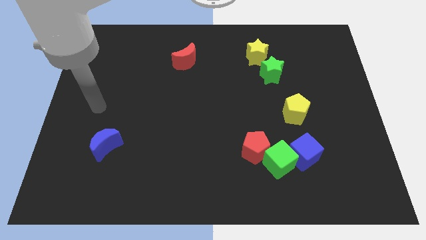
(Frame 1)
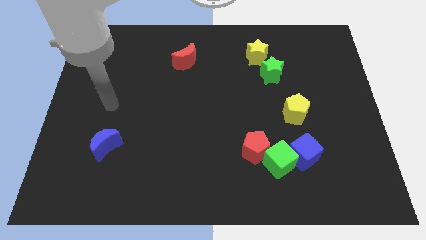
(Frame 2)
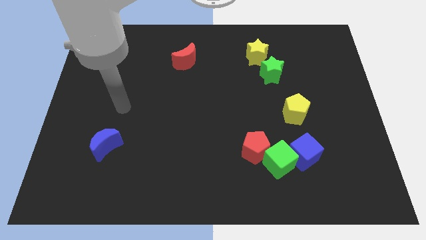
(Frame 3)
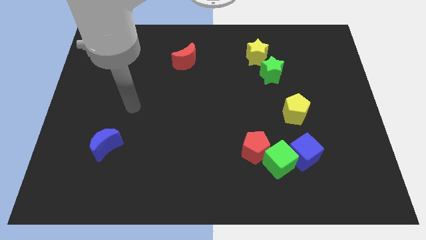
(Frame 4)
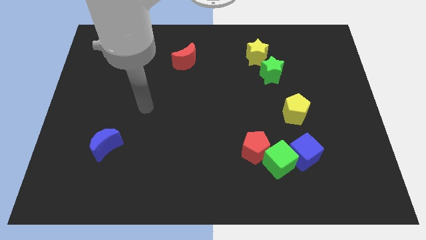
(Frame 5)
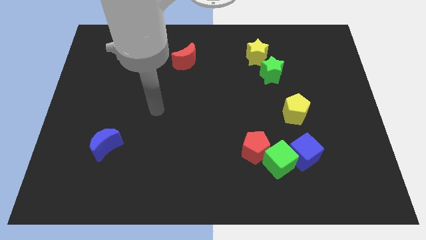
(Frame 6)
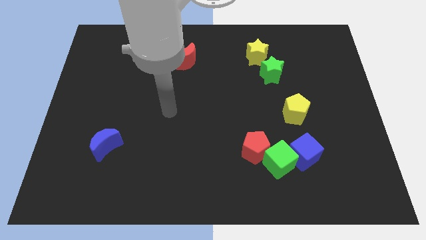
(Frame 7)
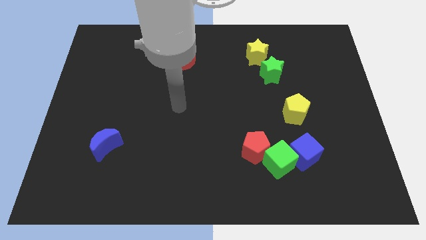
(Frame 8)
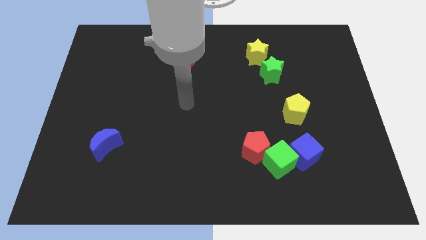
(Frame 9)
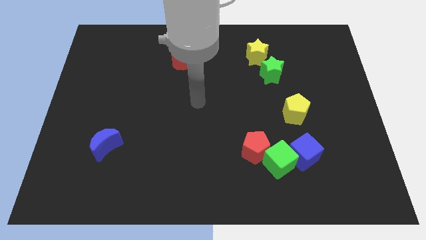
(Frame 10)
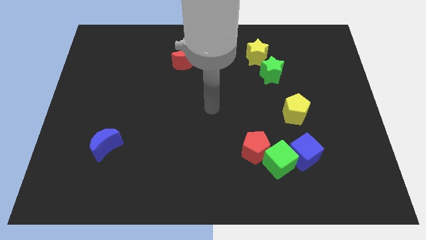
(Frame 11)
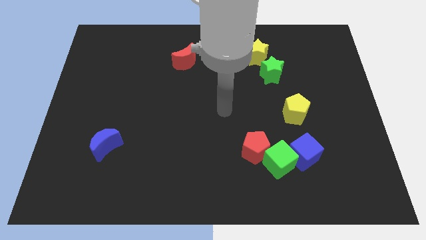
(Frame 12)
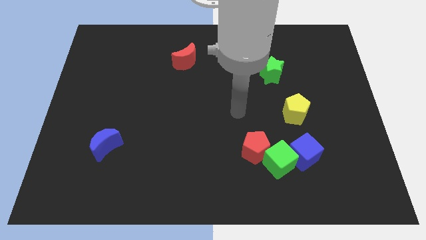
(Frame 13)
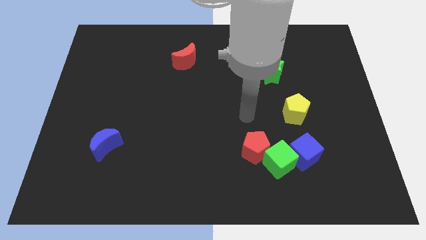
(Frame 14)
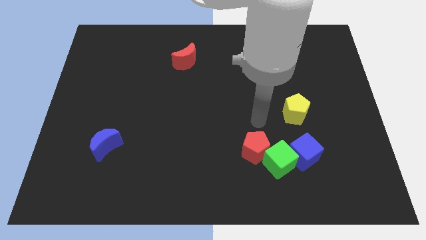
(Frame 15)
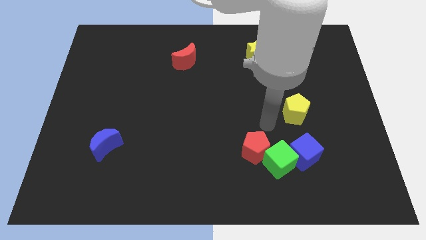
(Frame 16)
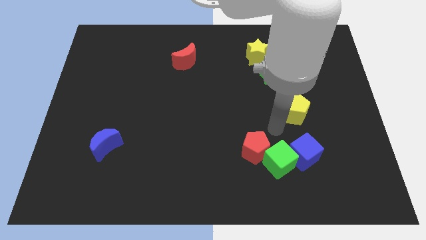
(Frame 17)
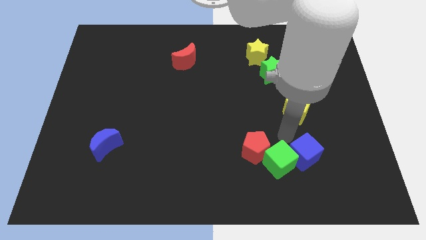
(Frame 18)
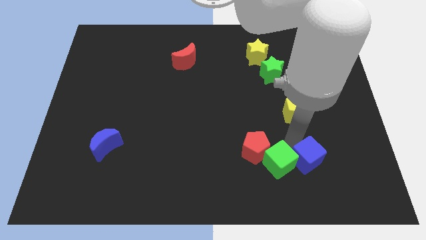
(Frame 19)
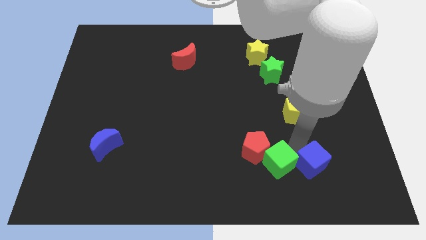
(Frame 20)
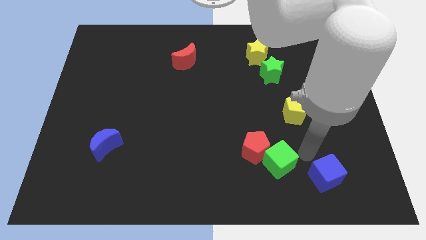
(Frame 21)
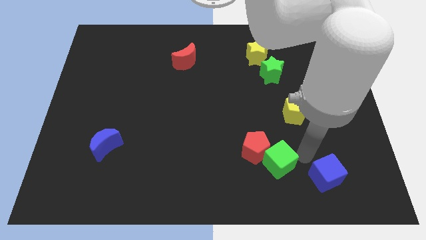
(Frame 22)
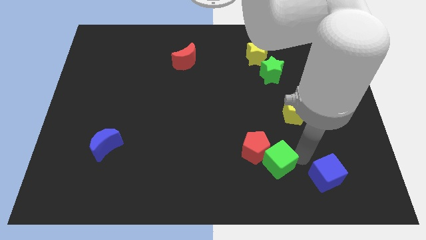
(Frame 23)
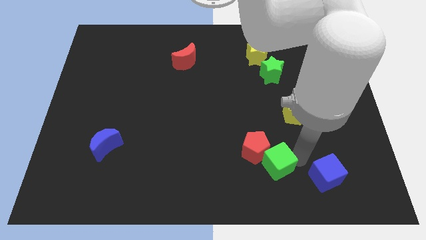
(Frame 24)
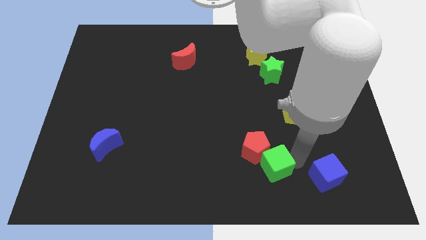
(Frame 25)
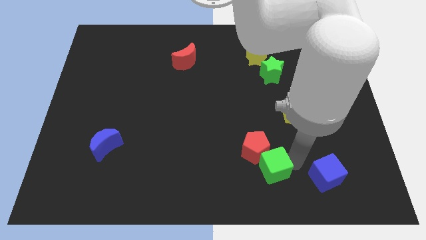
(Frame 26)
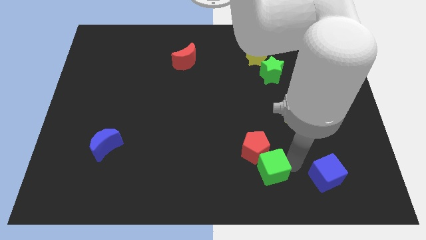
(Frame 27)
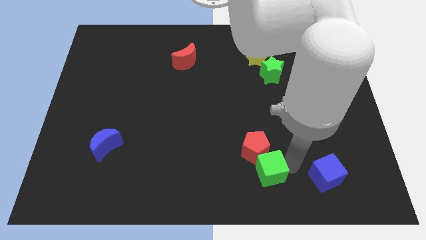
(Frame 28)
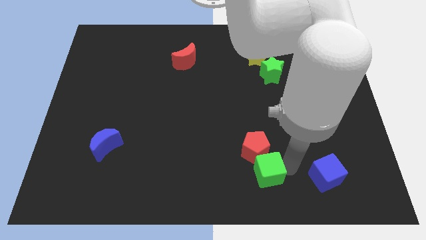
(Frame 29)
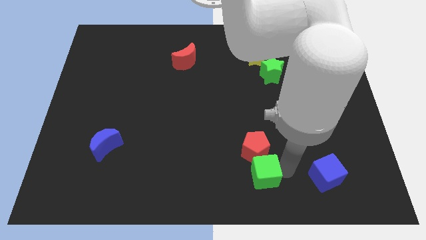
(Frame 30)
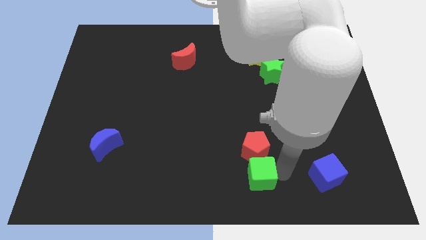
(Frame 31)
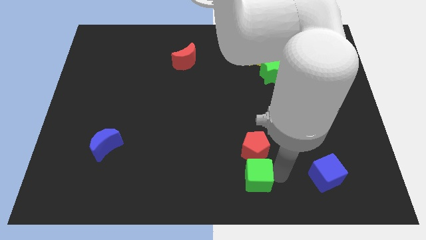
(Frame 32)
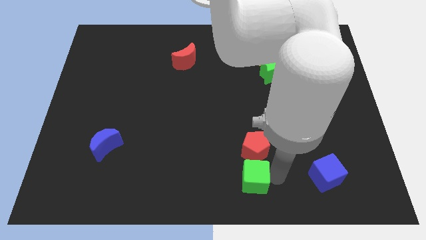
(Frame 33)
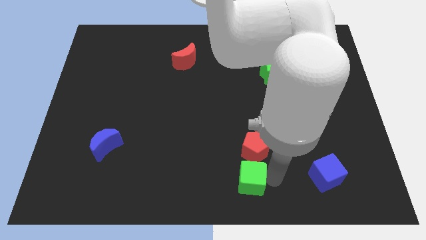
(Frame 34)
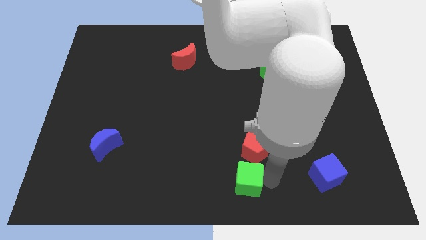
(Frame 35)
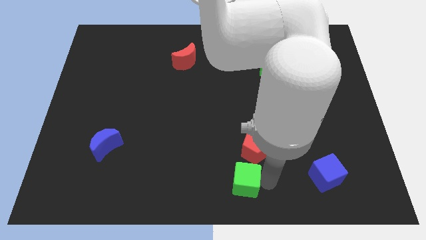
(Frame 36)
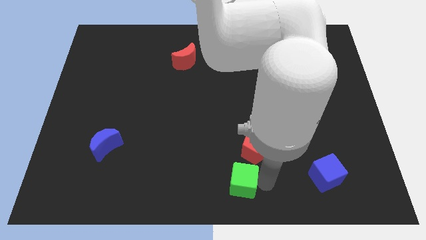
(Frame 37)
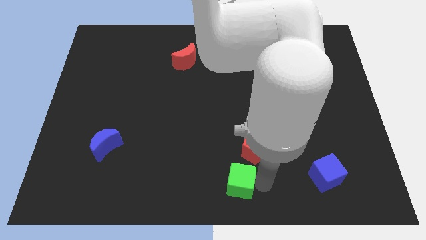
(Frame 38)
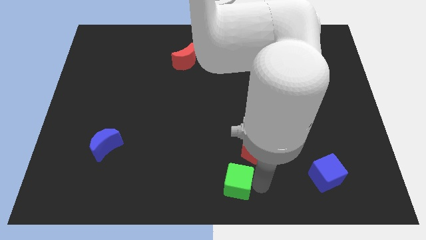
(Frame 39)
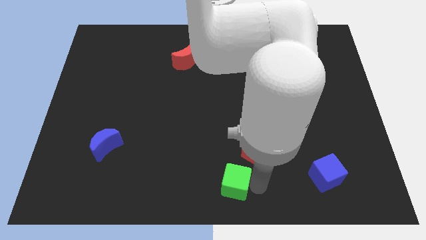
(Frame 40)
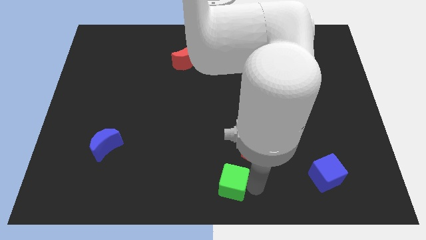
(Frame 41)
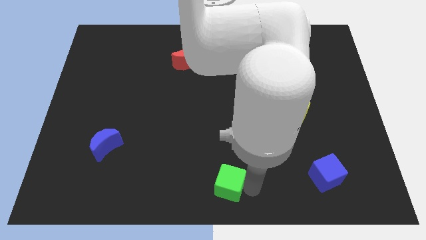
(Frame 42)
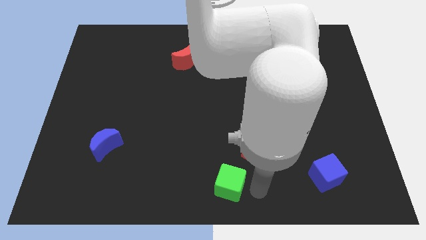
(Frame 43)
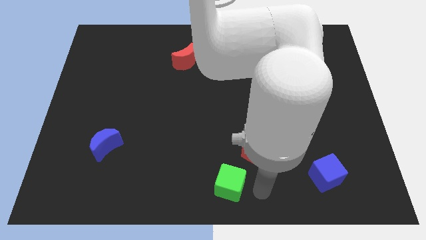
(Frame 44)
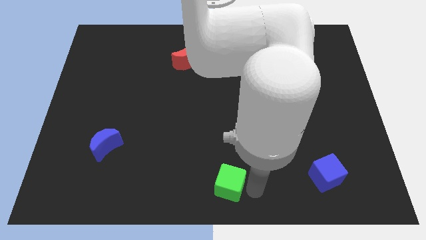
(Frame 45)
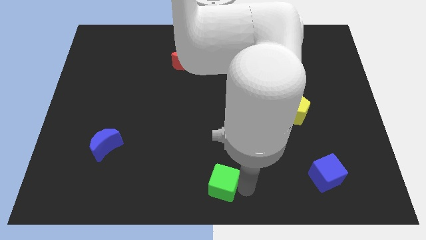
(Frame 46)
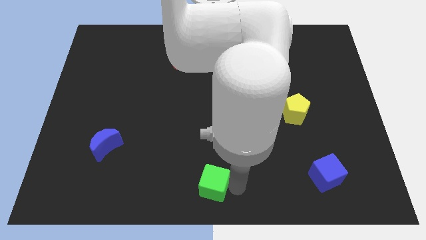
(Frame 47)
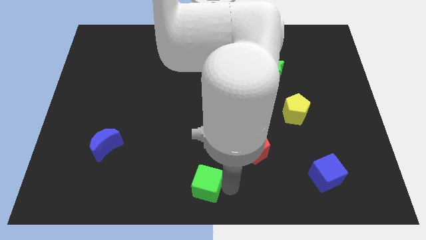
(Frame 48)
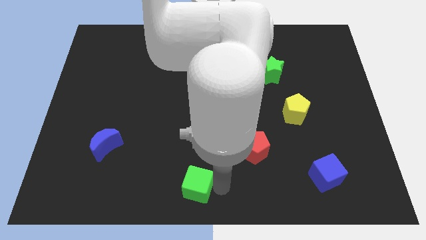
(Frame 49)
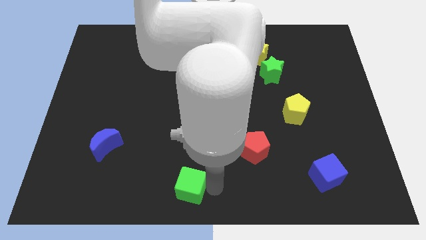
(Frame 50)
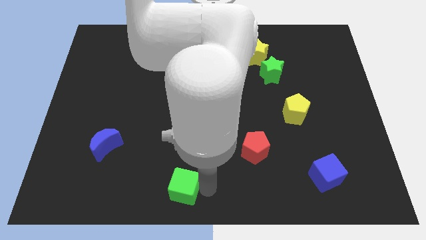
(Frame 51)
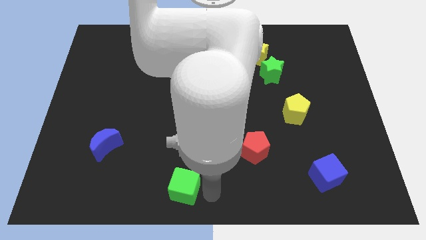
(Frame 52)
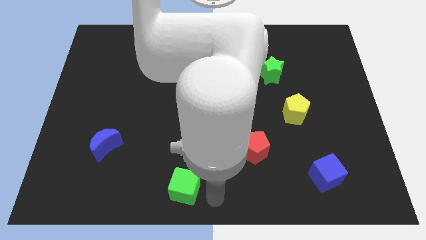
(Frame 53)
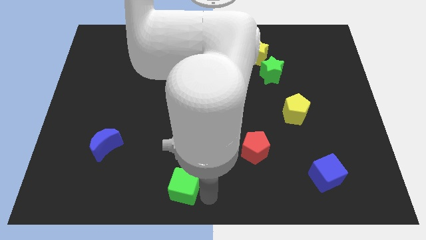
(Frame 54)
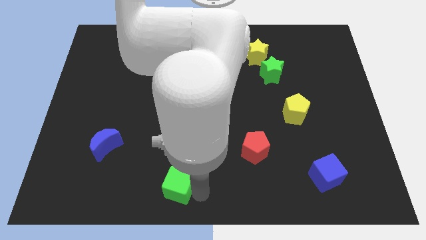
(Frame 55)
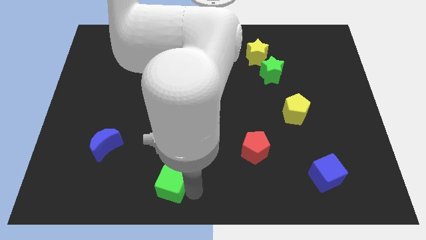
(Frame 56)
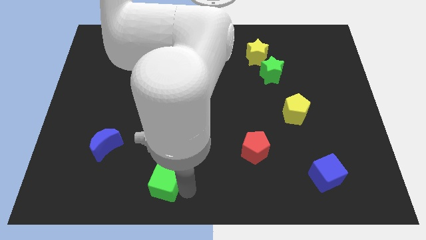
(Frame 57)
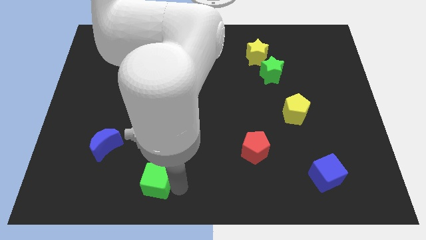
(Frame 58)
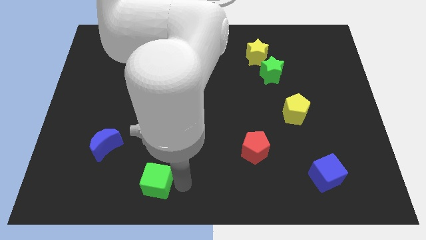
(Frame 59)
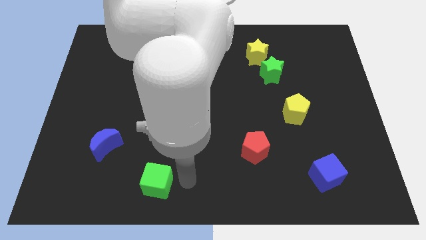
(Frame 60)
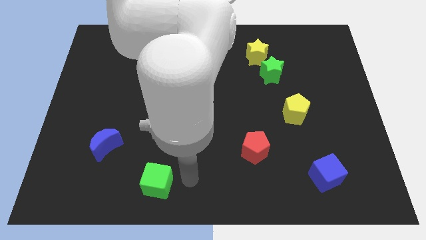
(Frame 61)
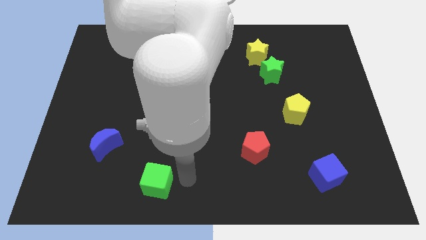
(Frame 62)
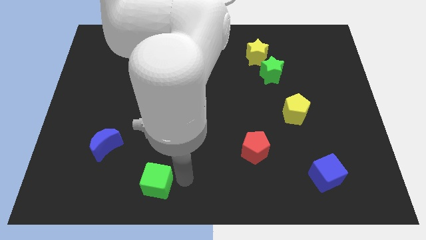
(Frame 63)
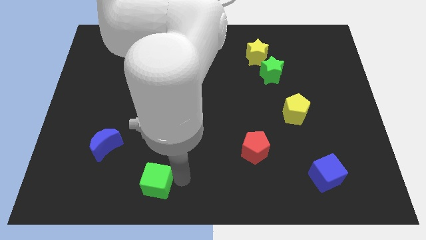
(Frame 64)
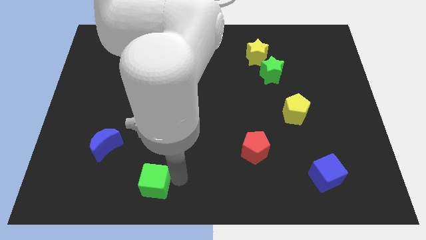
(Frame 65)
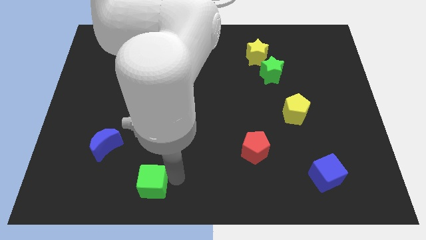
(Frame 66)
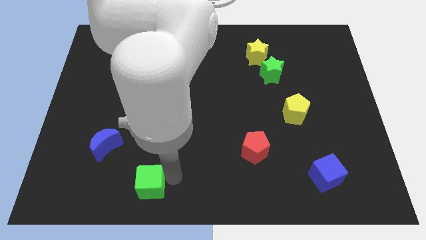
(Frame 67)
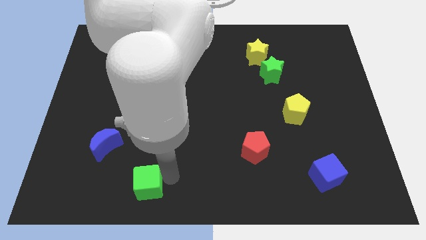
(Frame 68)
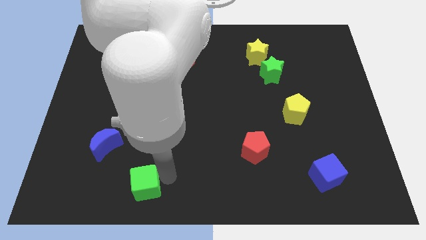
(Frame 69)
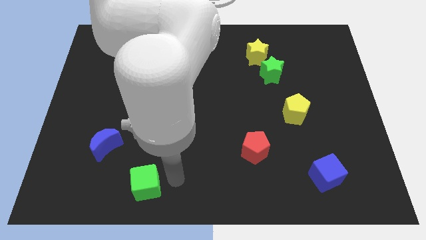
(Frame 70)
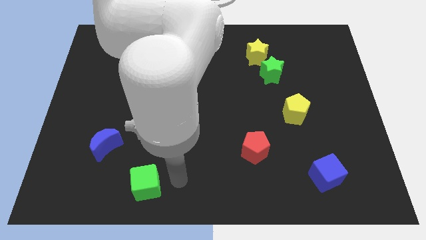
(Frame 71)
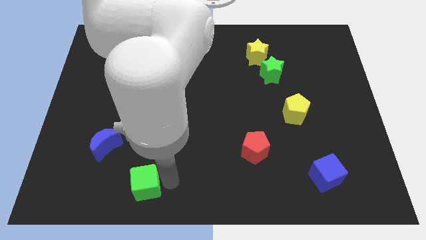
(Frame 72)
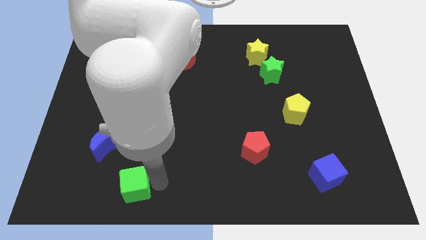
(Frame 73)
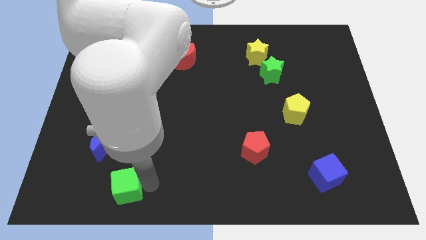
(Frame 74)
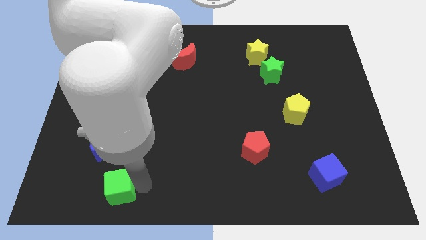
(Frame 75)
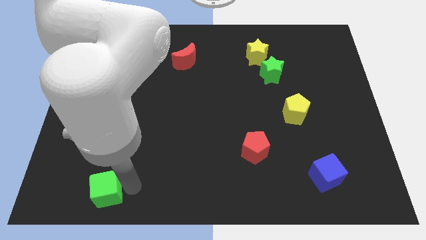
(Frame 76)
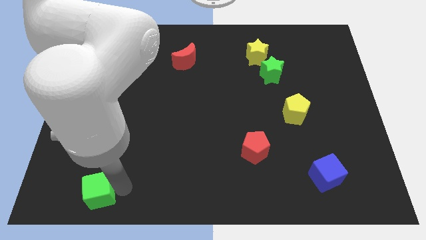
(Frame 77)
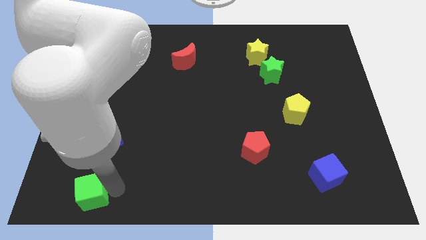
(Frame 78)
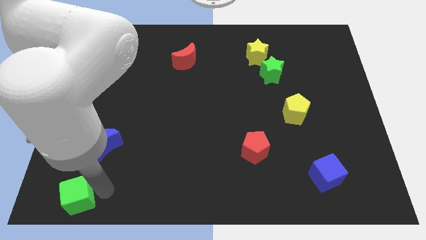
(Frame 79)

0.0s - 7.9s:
push the green cube to the bottom left corner
